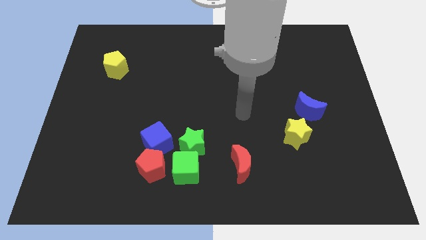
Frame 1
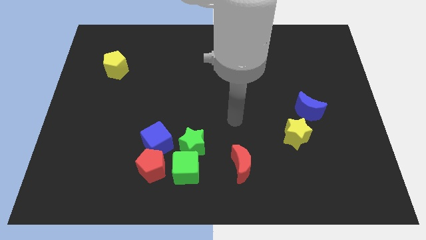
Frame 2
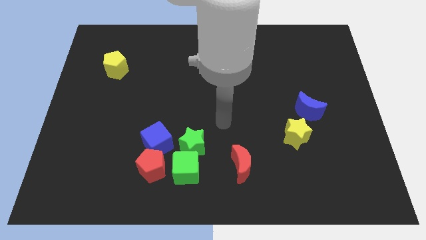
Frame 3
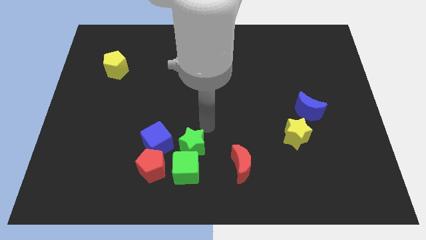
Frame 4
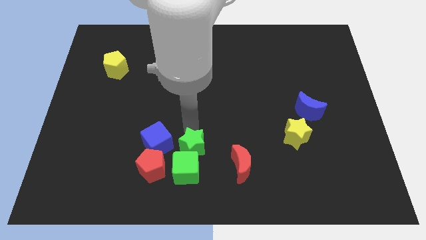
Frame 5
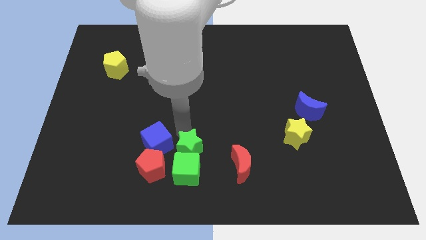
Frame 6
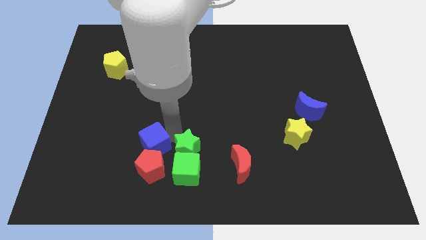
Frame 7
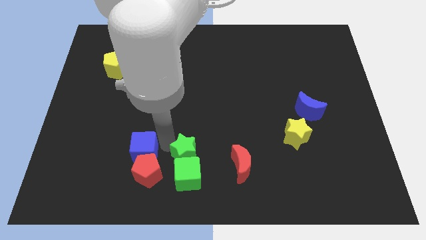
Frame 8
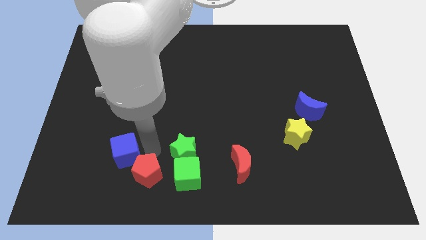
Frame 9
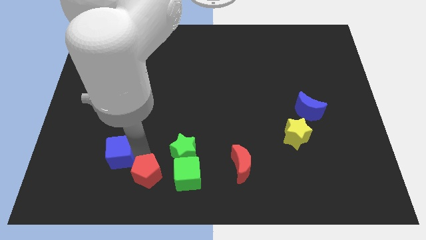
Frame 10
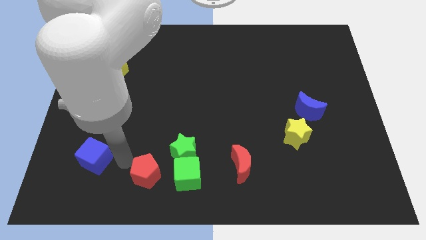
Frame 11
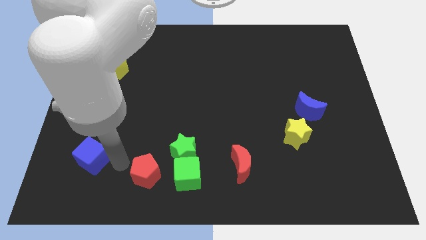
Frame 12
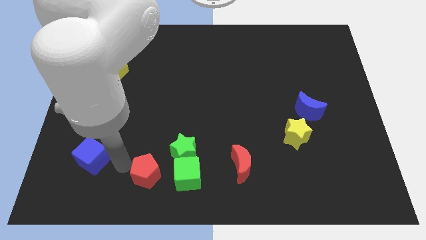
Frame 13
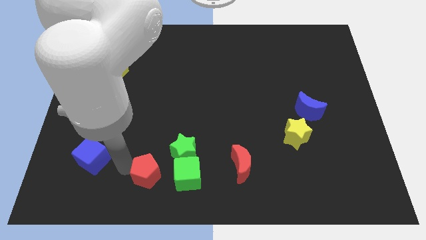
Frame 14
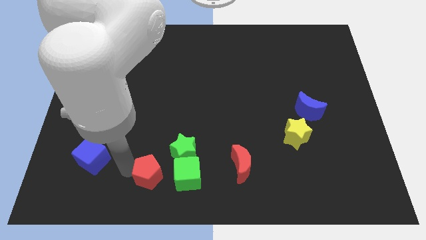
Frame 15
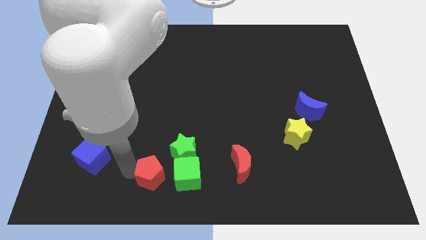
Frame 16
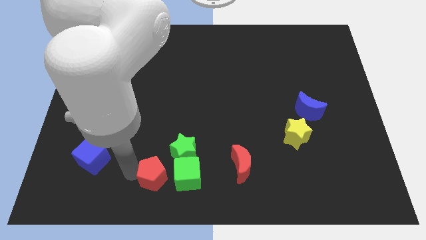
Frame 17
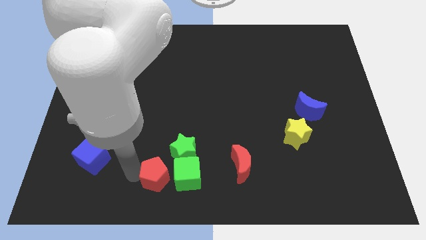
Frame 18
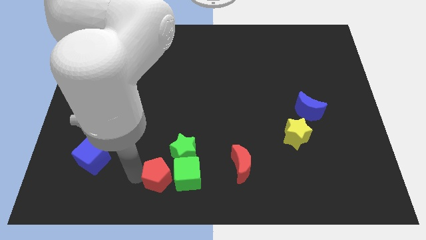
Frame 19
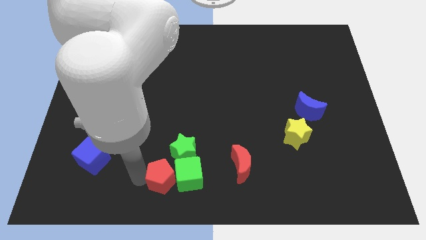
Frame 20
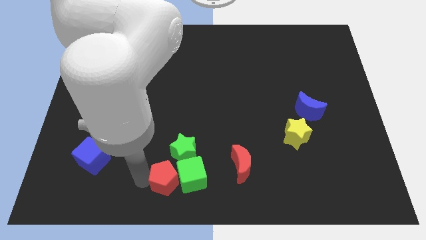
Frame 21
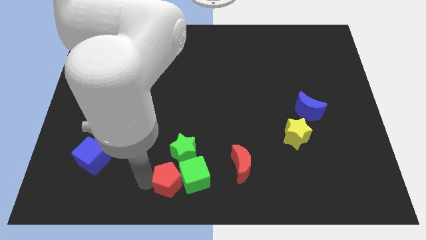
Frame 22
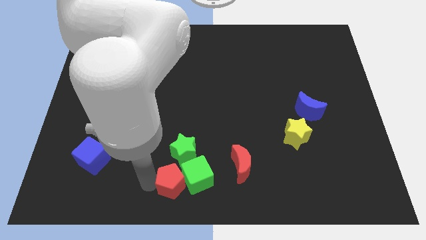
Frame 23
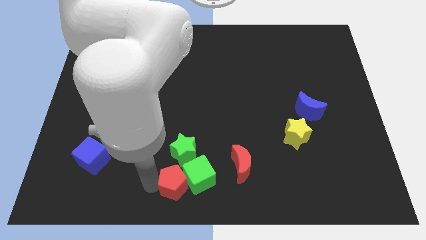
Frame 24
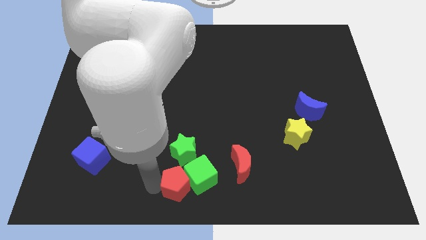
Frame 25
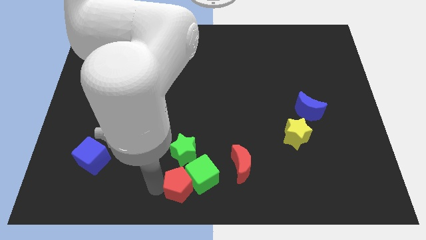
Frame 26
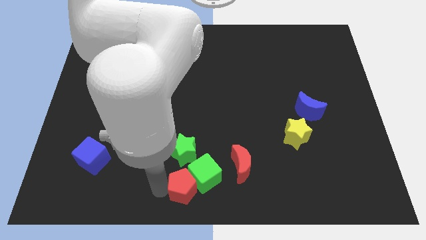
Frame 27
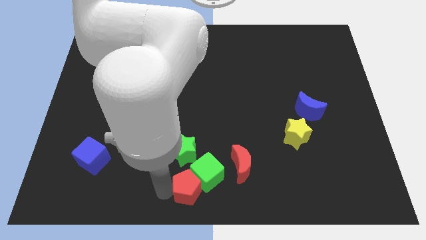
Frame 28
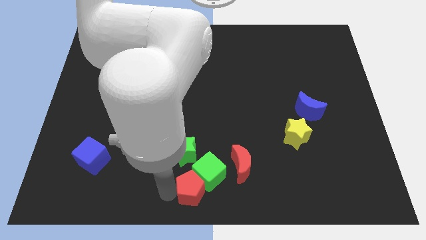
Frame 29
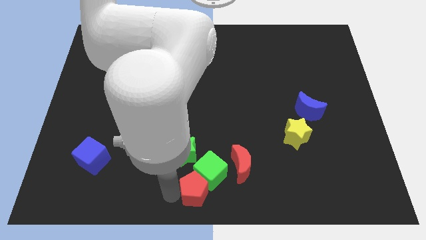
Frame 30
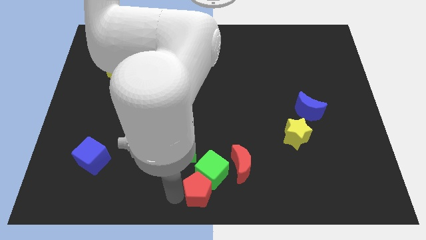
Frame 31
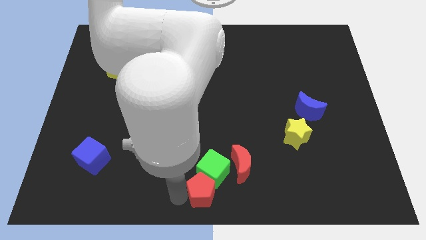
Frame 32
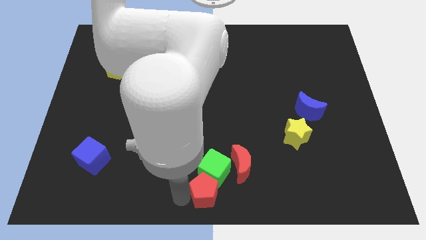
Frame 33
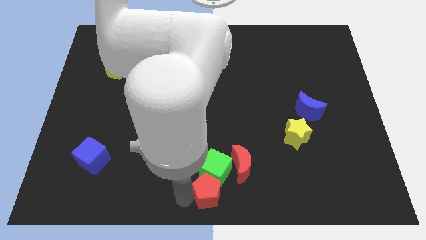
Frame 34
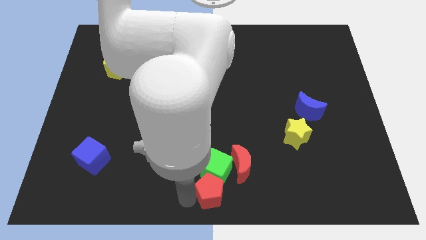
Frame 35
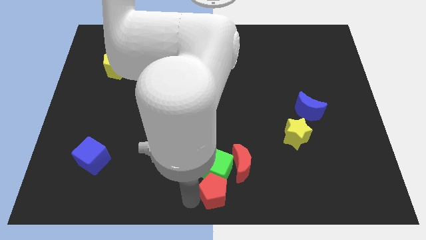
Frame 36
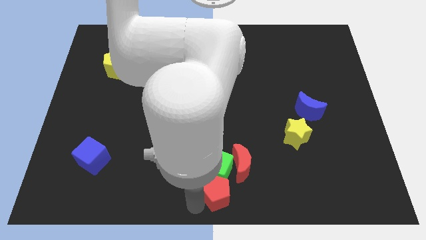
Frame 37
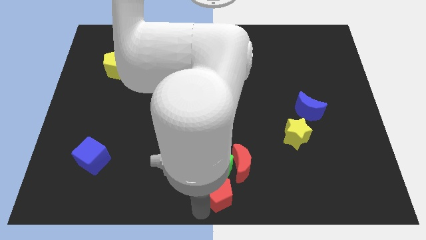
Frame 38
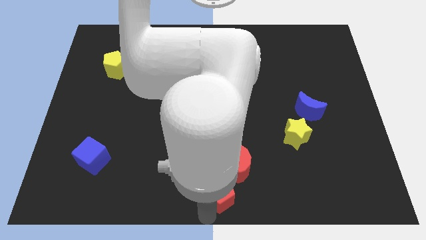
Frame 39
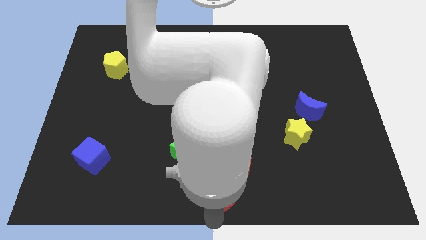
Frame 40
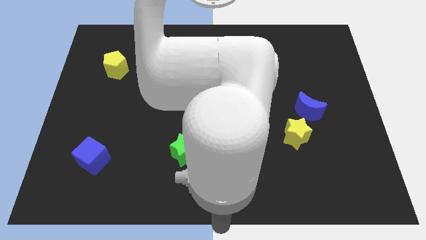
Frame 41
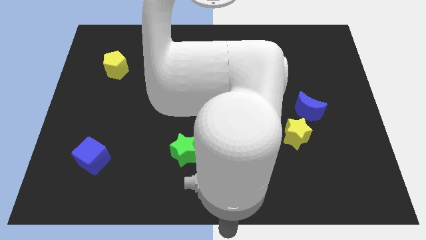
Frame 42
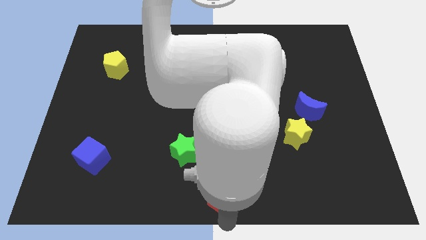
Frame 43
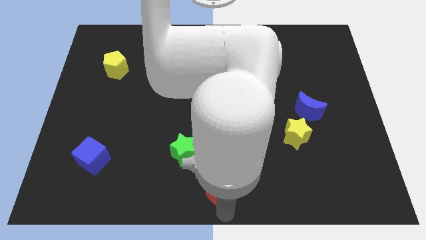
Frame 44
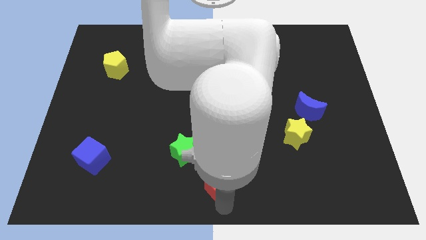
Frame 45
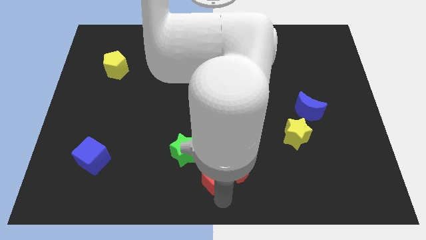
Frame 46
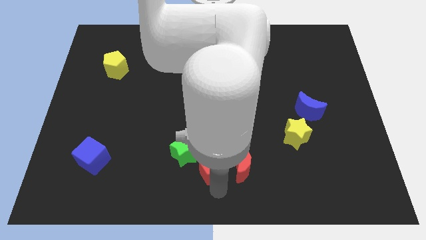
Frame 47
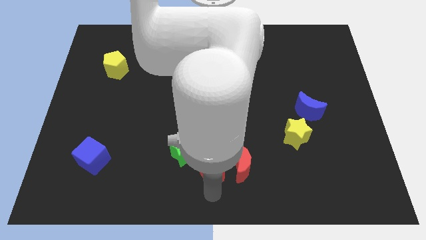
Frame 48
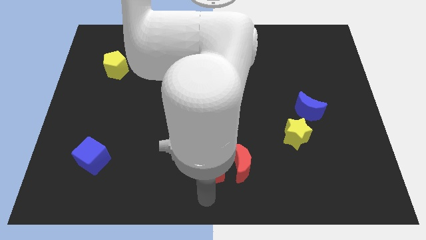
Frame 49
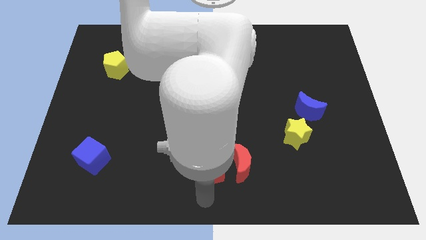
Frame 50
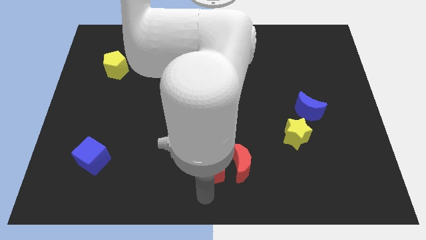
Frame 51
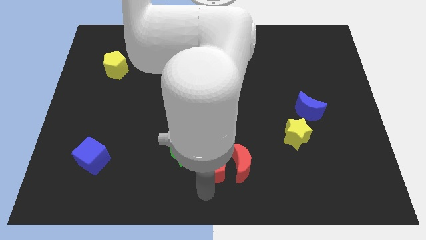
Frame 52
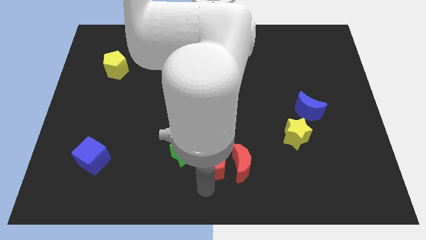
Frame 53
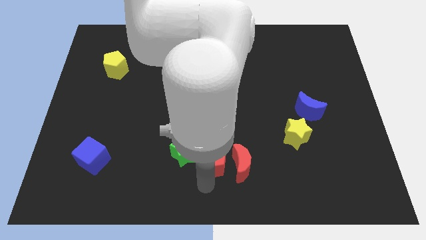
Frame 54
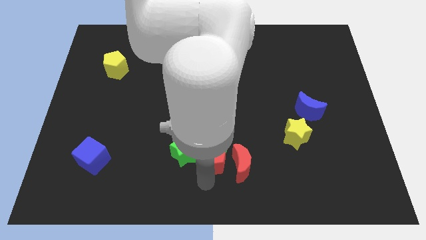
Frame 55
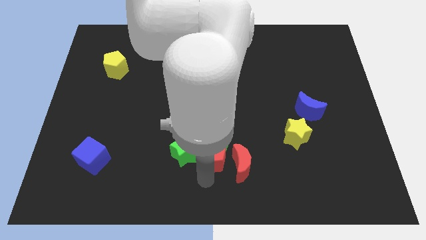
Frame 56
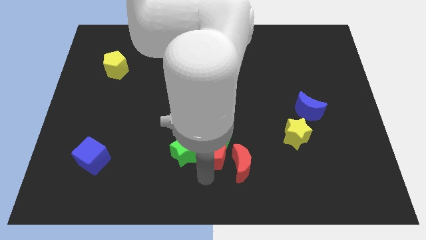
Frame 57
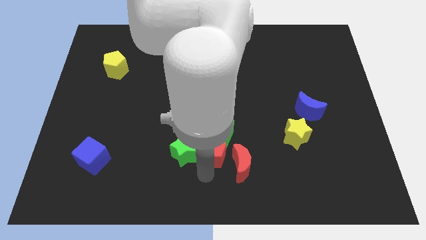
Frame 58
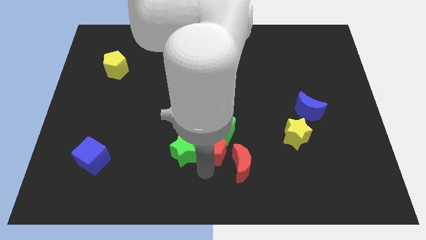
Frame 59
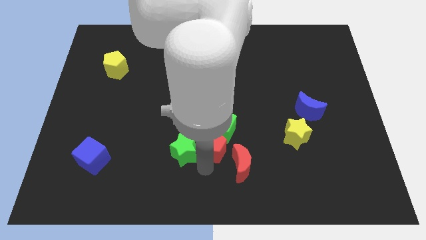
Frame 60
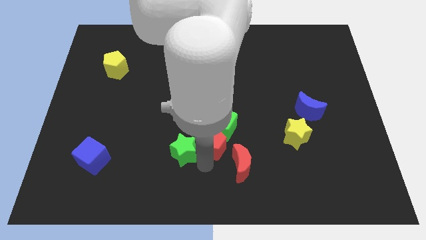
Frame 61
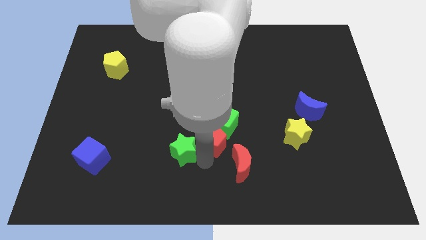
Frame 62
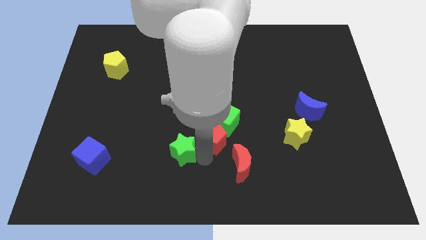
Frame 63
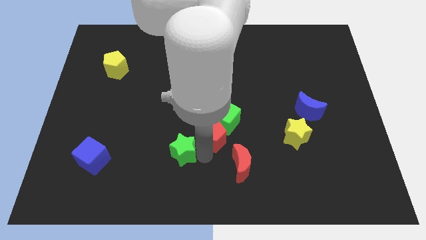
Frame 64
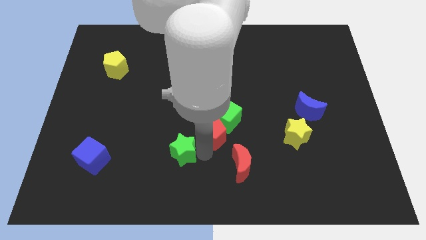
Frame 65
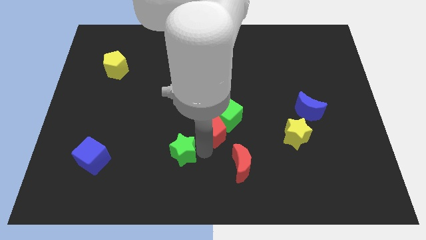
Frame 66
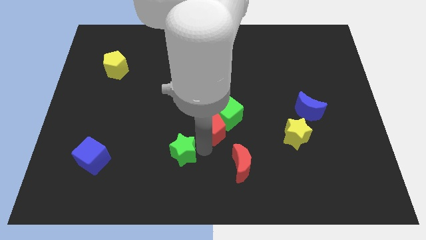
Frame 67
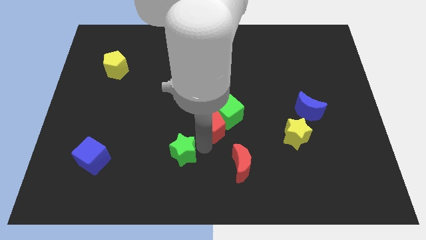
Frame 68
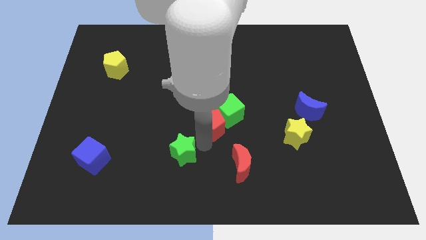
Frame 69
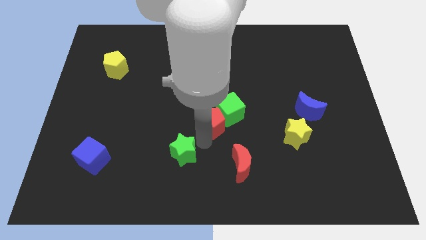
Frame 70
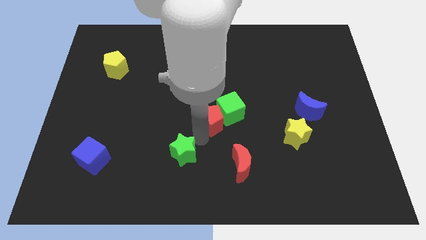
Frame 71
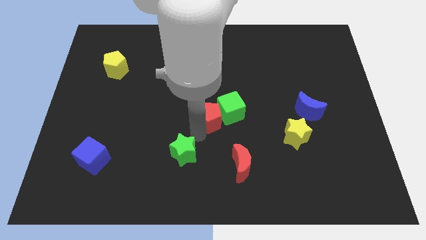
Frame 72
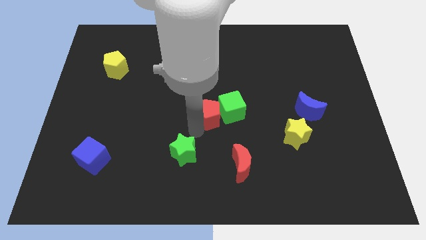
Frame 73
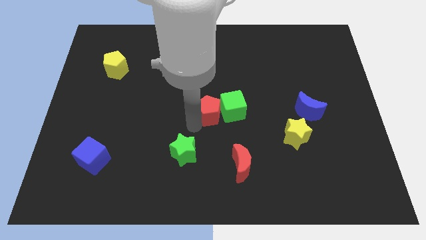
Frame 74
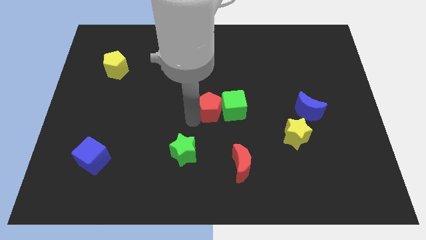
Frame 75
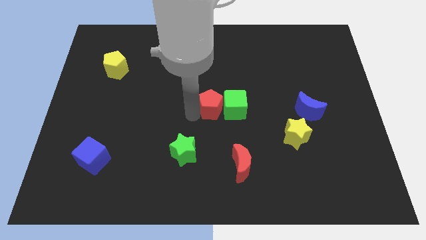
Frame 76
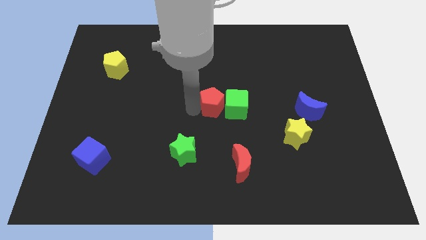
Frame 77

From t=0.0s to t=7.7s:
push the red pentagon up and then to the right

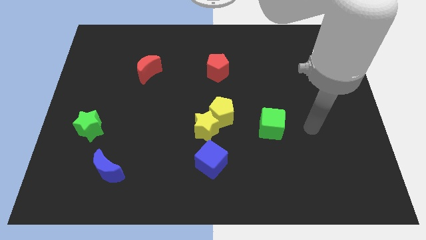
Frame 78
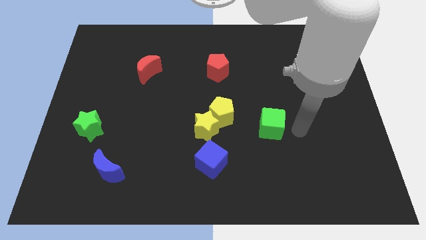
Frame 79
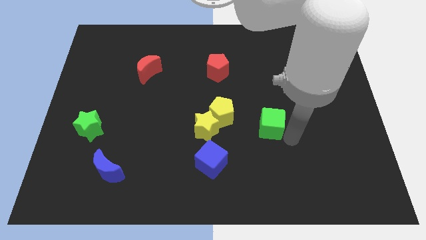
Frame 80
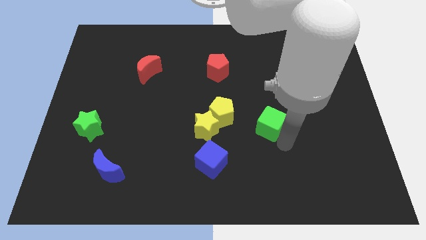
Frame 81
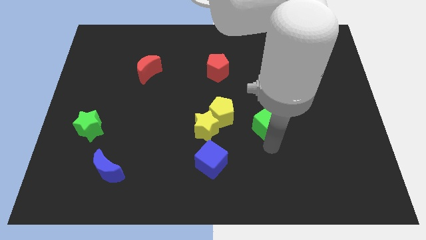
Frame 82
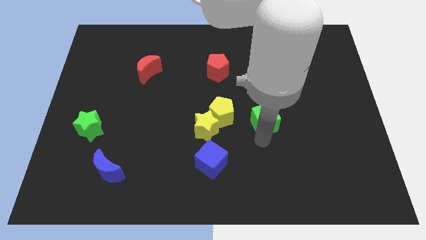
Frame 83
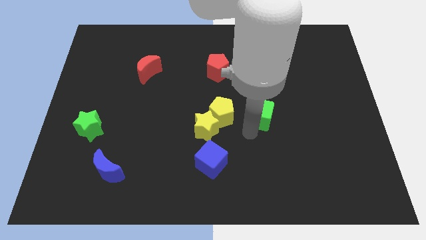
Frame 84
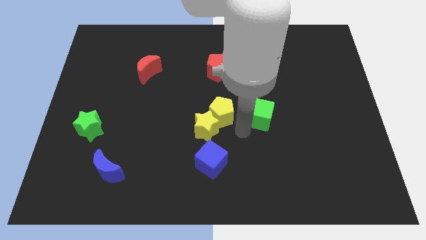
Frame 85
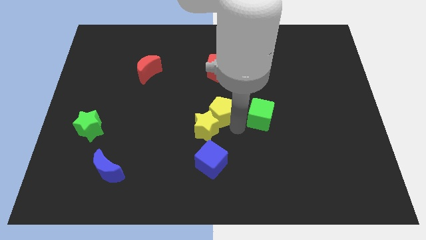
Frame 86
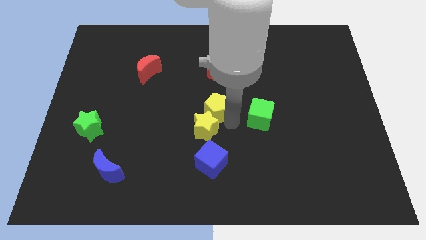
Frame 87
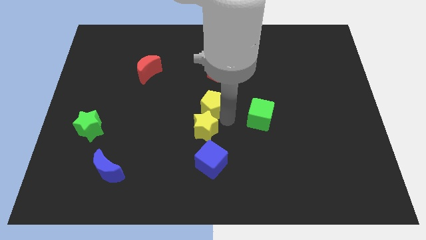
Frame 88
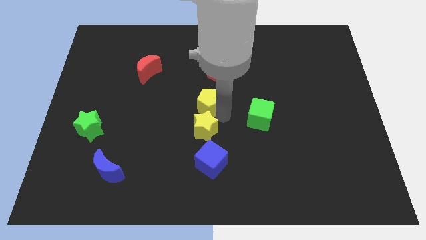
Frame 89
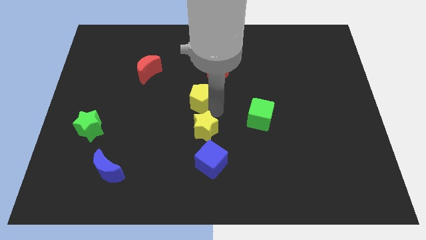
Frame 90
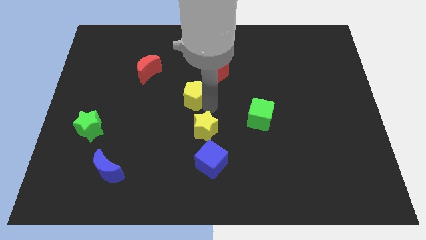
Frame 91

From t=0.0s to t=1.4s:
slightly move the yellow pentagon upwards and then to the left
